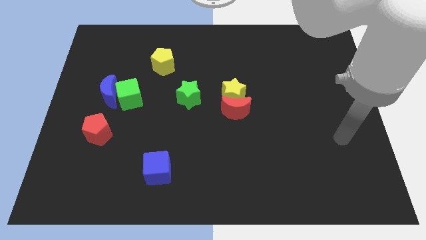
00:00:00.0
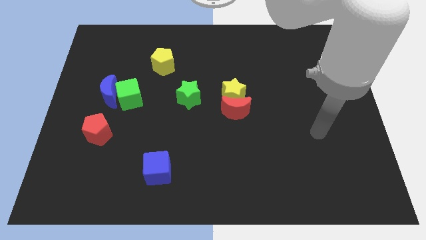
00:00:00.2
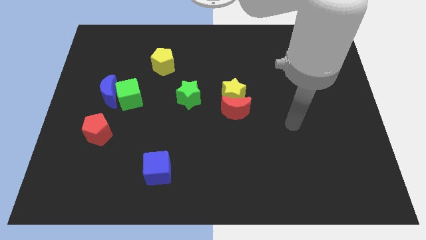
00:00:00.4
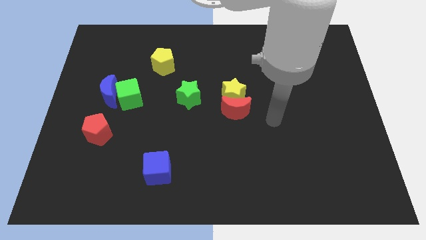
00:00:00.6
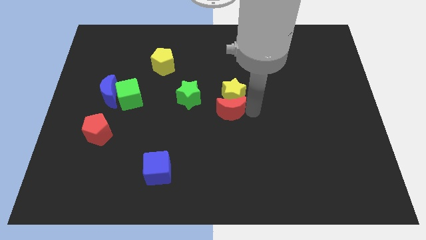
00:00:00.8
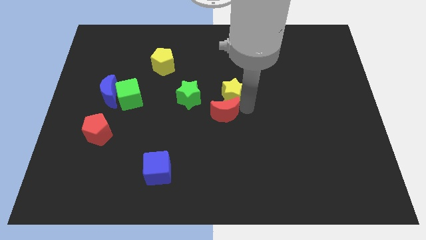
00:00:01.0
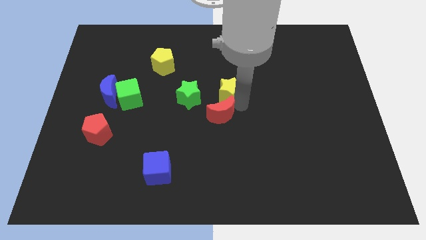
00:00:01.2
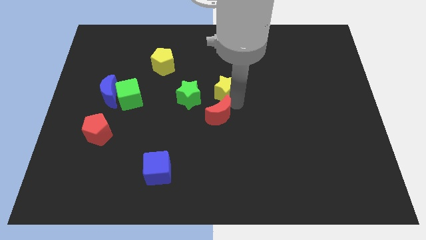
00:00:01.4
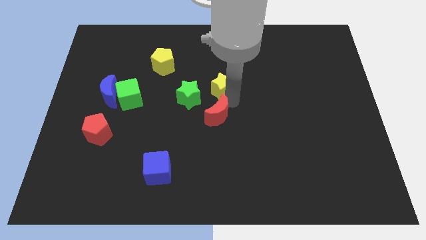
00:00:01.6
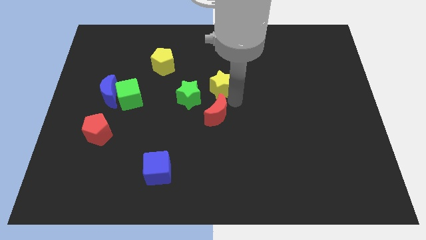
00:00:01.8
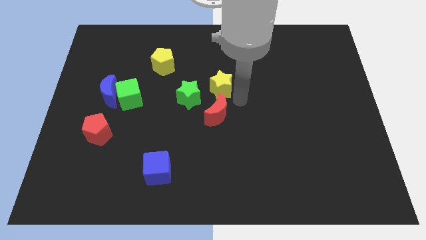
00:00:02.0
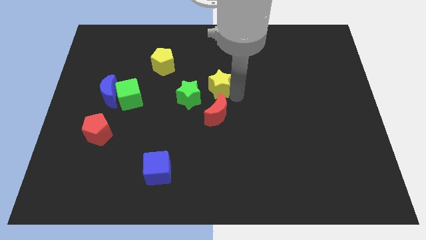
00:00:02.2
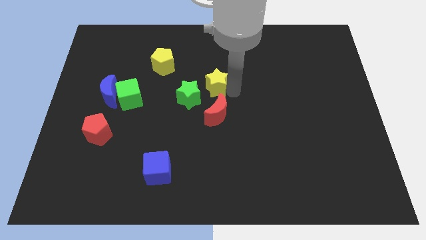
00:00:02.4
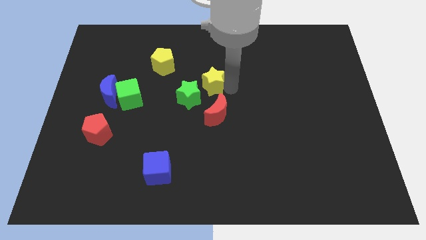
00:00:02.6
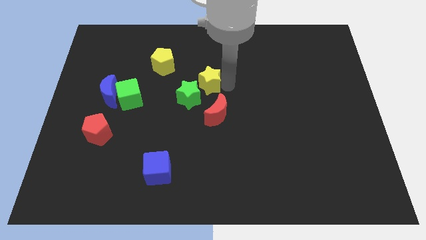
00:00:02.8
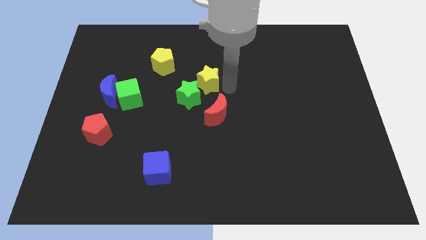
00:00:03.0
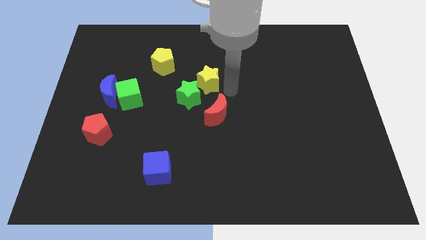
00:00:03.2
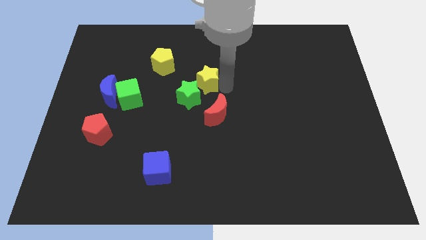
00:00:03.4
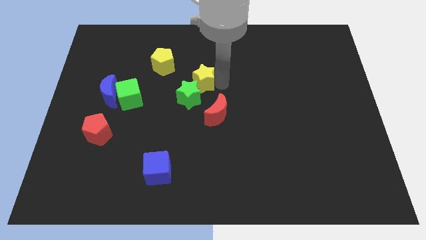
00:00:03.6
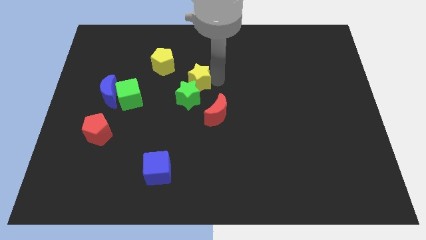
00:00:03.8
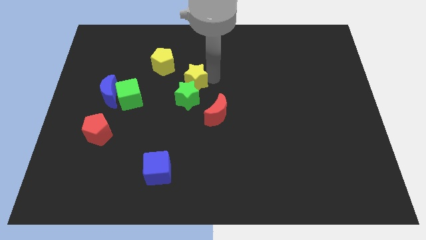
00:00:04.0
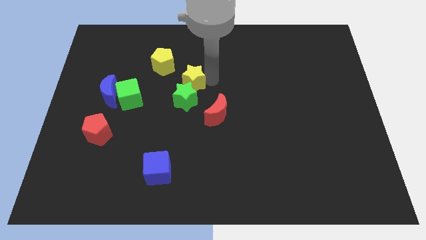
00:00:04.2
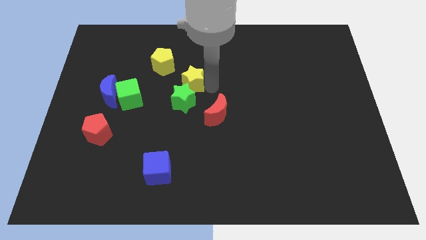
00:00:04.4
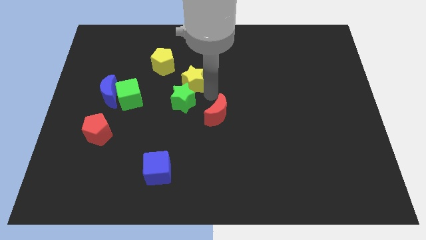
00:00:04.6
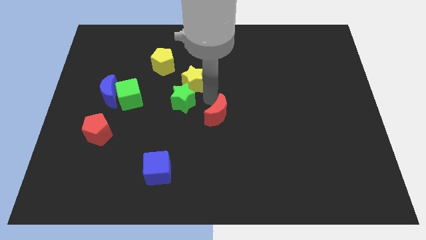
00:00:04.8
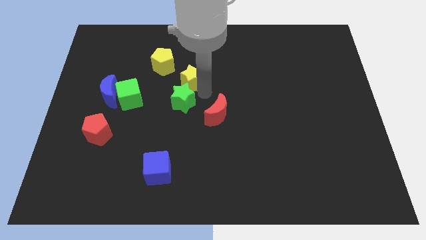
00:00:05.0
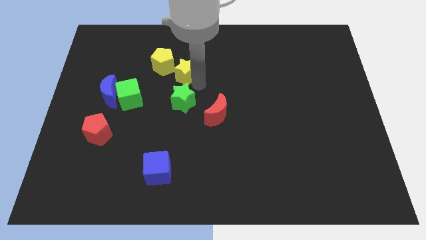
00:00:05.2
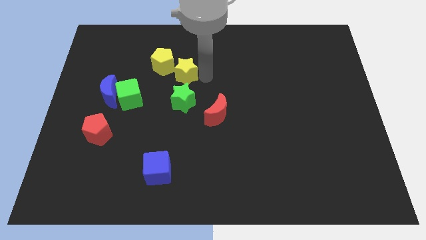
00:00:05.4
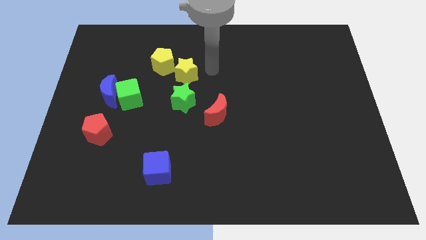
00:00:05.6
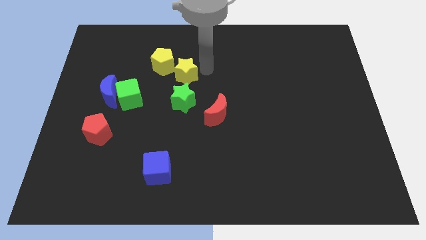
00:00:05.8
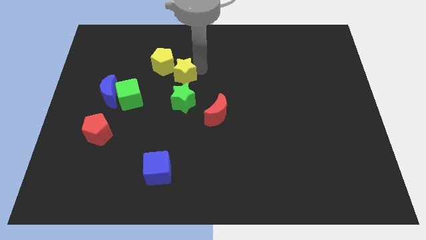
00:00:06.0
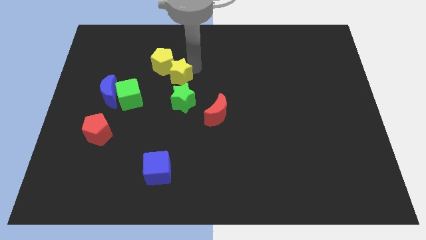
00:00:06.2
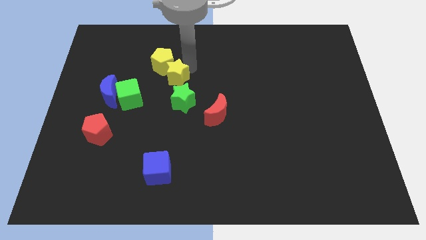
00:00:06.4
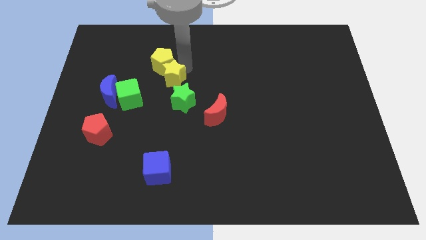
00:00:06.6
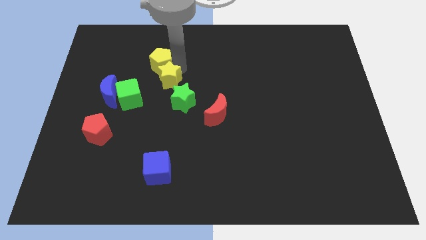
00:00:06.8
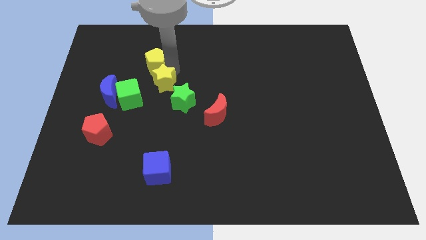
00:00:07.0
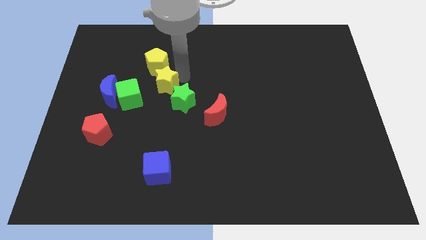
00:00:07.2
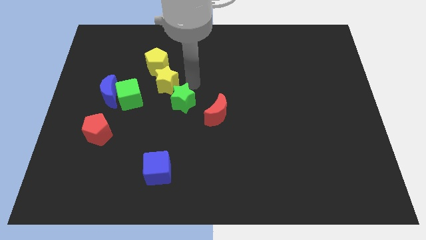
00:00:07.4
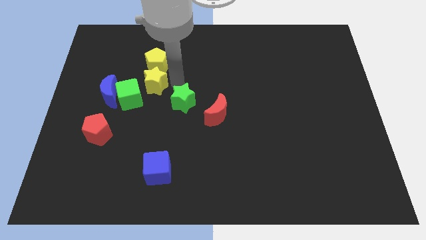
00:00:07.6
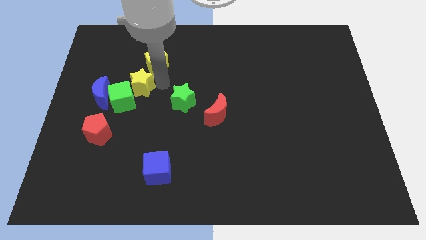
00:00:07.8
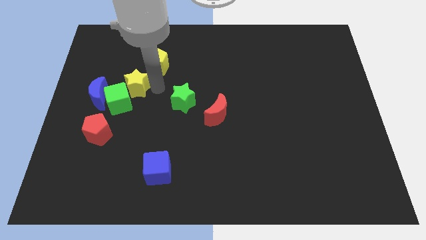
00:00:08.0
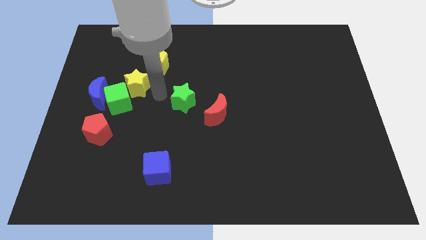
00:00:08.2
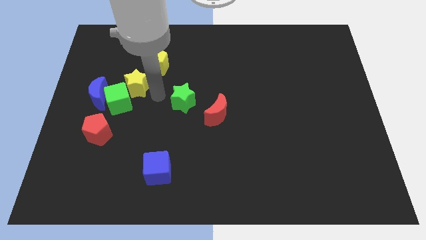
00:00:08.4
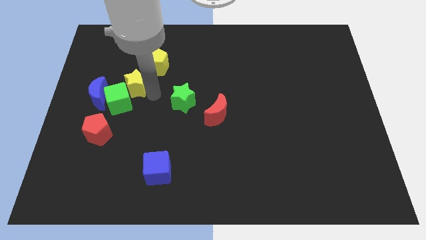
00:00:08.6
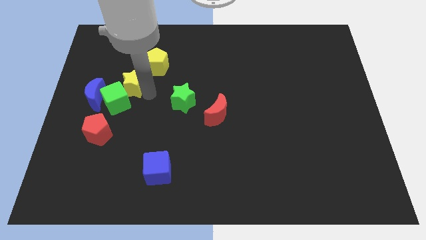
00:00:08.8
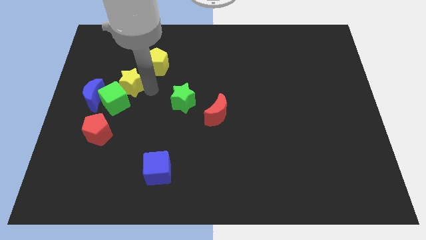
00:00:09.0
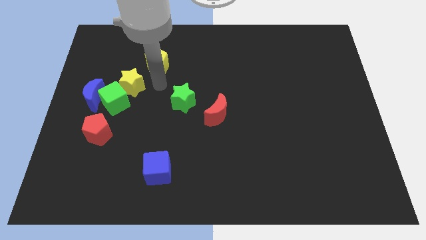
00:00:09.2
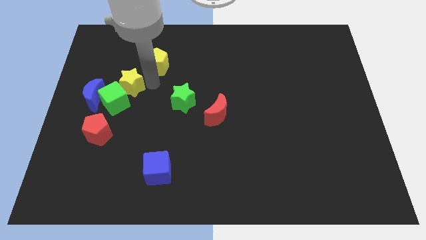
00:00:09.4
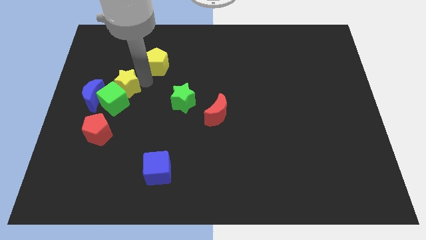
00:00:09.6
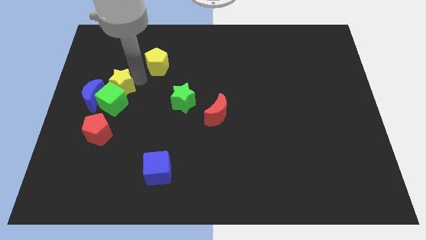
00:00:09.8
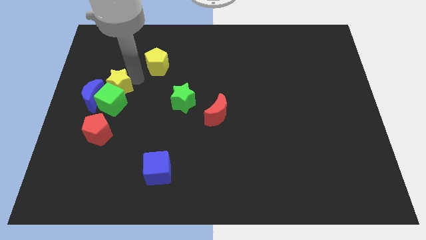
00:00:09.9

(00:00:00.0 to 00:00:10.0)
move the yellow star to the top left side of the green cube

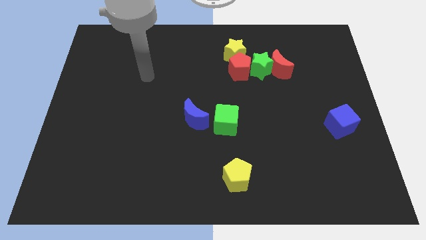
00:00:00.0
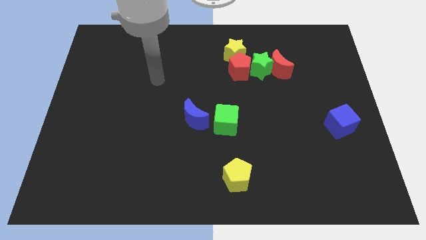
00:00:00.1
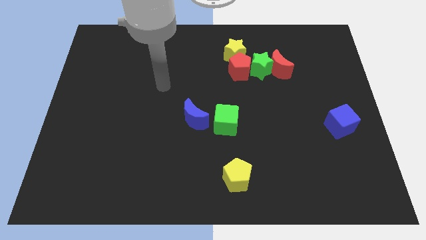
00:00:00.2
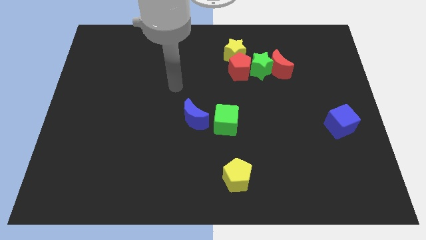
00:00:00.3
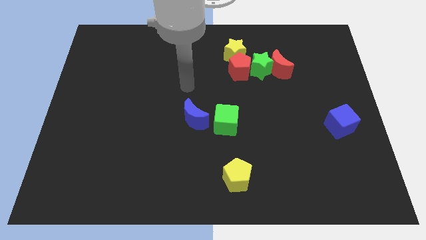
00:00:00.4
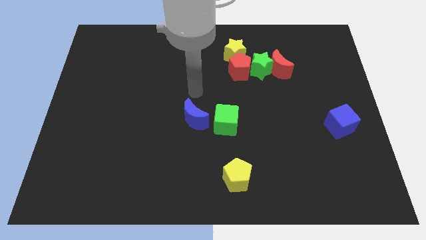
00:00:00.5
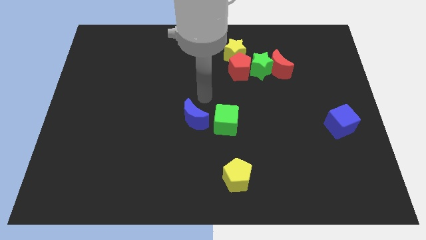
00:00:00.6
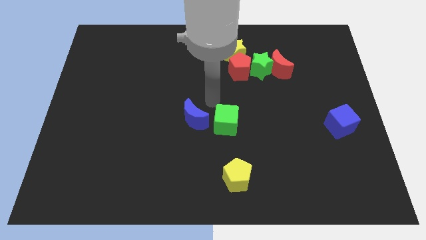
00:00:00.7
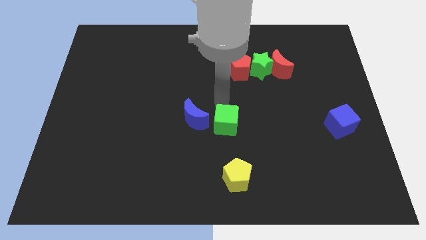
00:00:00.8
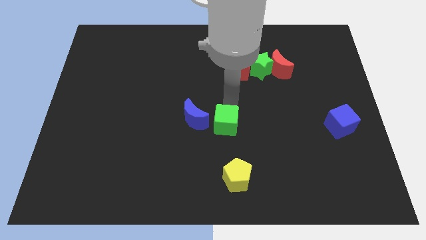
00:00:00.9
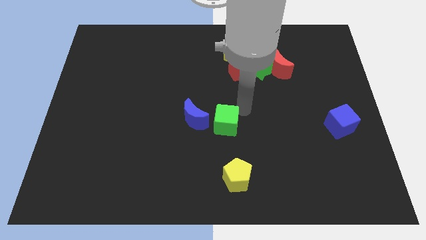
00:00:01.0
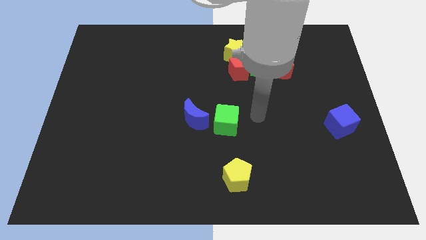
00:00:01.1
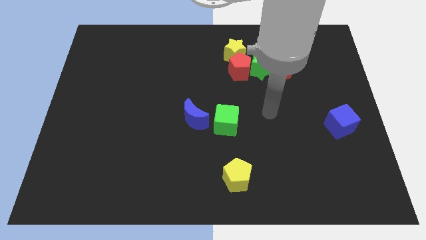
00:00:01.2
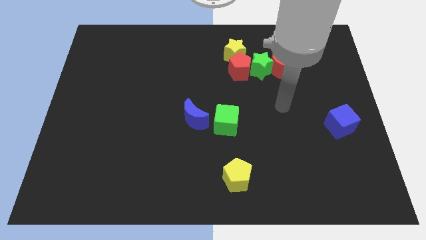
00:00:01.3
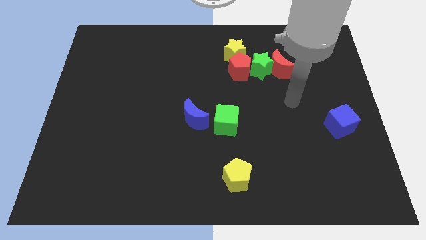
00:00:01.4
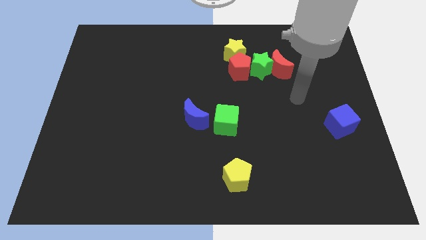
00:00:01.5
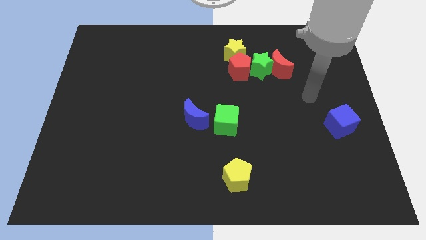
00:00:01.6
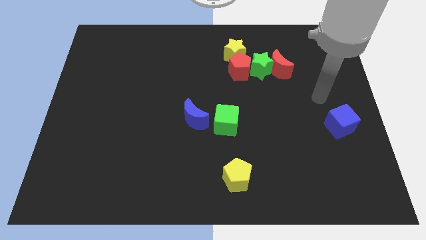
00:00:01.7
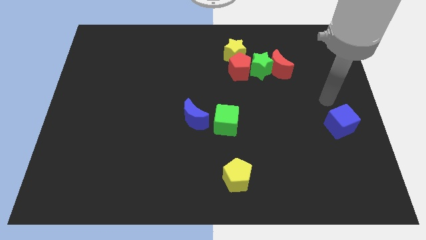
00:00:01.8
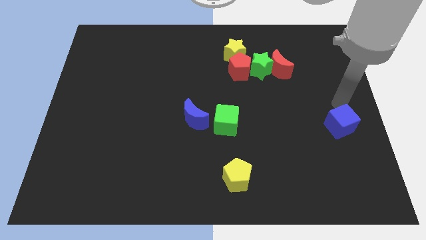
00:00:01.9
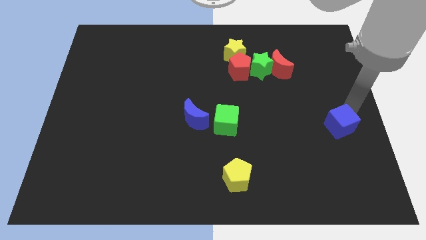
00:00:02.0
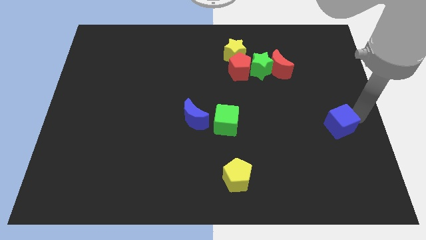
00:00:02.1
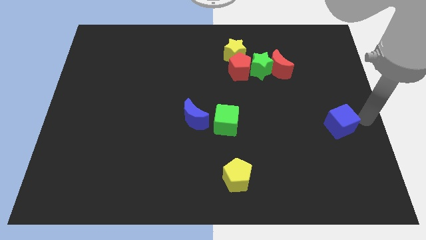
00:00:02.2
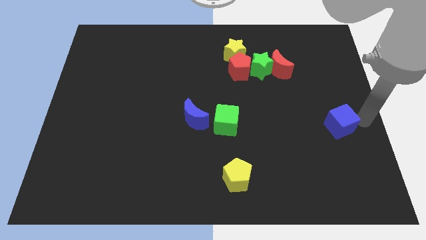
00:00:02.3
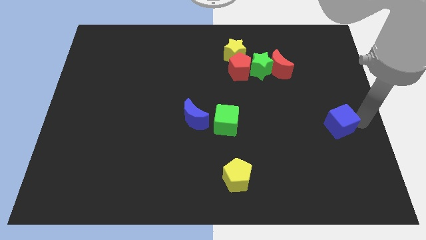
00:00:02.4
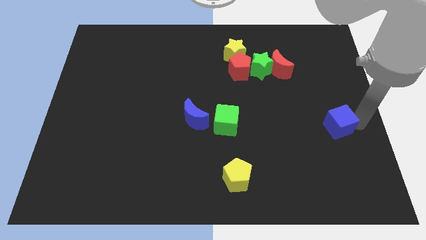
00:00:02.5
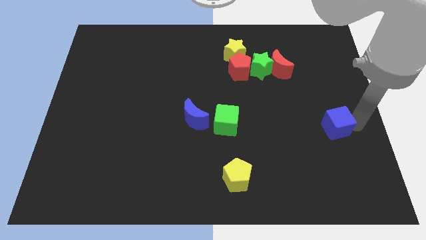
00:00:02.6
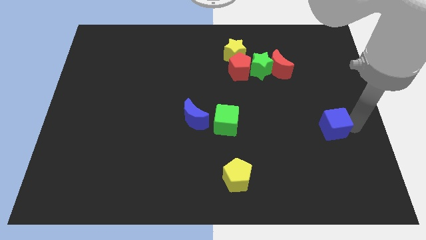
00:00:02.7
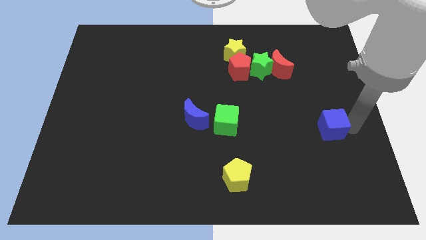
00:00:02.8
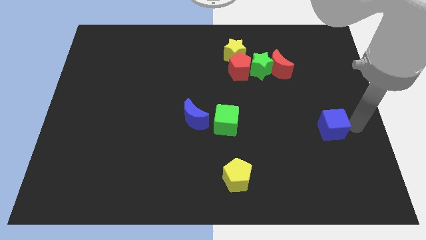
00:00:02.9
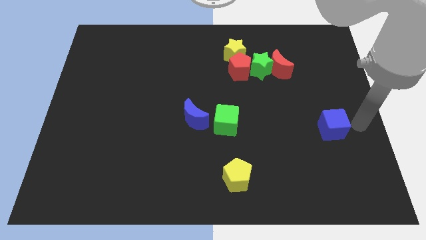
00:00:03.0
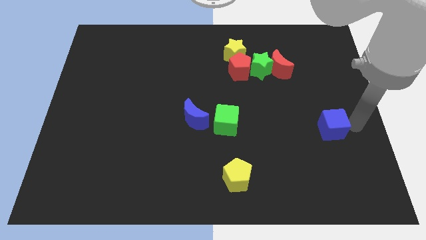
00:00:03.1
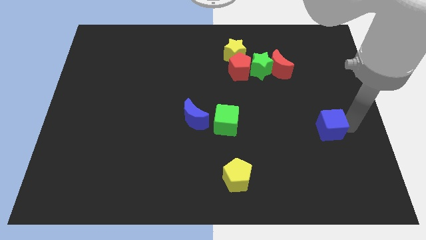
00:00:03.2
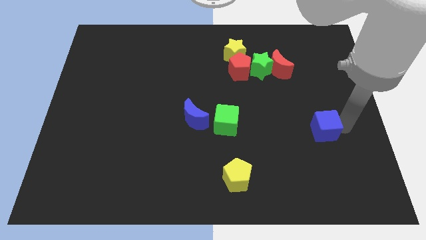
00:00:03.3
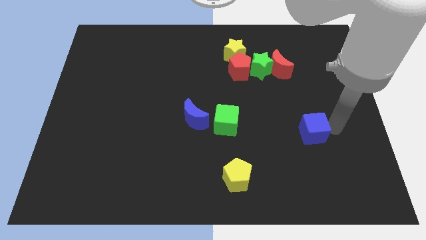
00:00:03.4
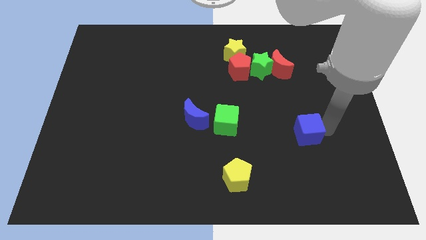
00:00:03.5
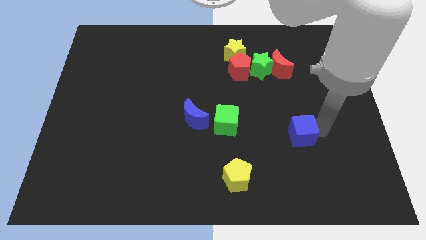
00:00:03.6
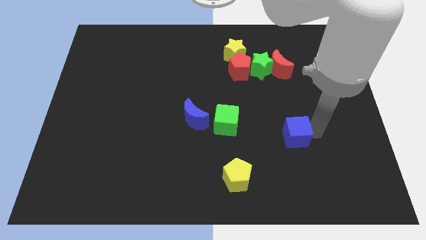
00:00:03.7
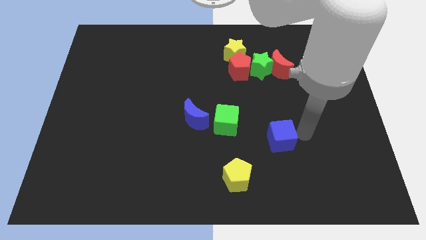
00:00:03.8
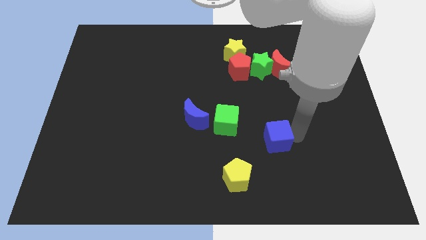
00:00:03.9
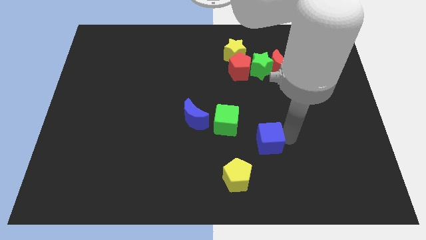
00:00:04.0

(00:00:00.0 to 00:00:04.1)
slide the blue cube to the bottom right side of the green cube
